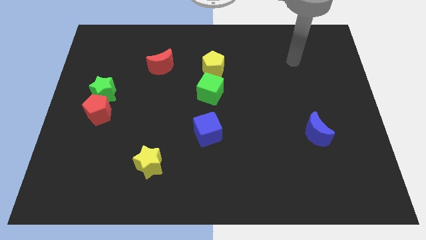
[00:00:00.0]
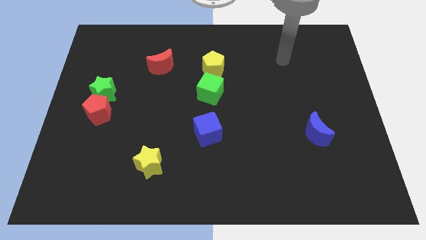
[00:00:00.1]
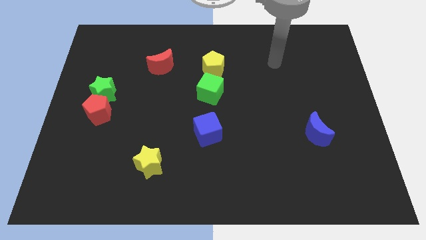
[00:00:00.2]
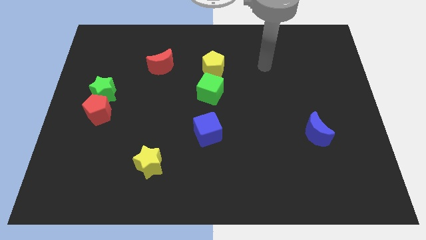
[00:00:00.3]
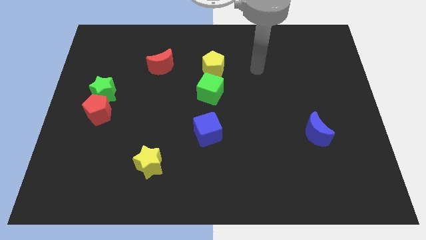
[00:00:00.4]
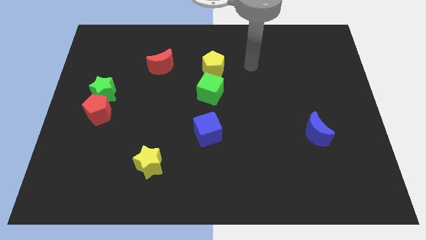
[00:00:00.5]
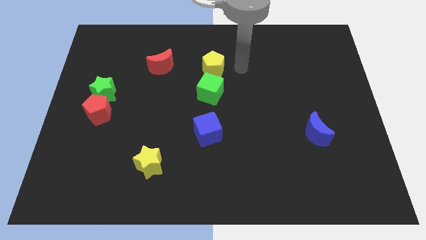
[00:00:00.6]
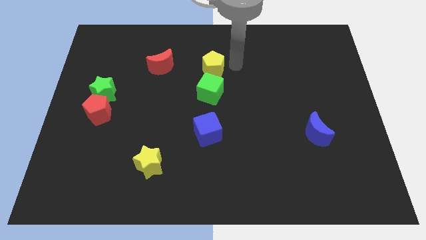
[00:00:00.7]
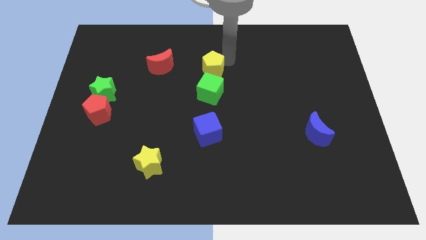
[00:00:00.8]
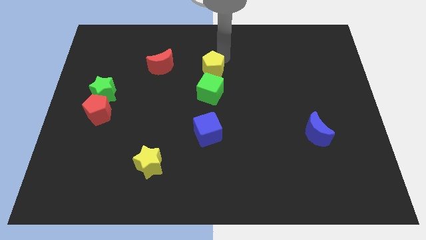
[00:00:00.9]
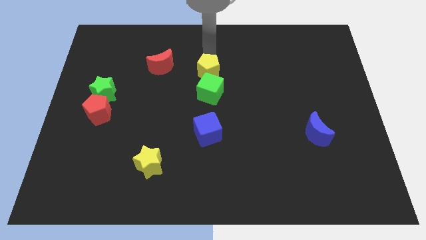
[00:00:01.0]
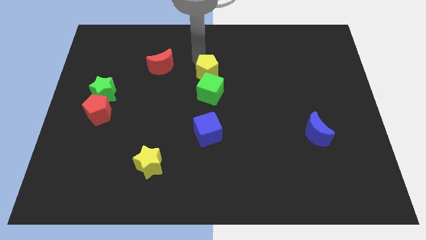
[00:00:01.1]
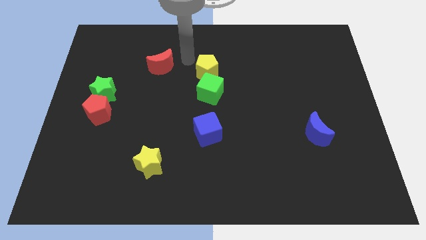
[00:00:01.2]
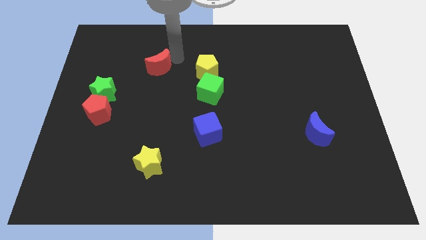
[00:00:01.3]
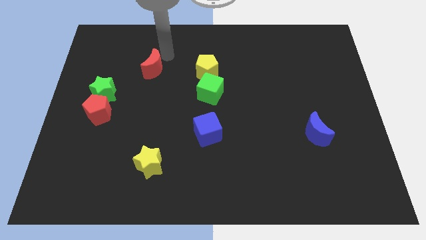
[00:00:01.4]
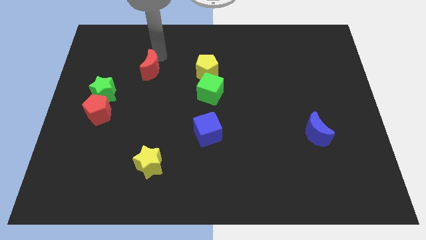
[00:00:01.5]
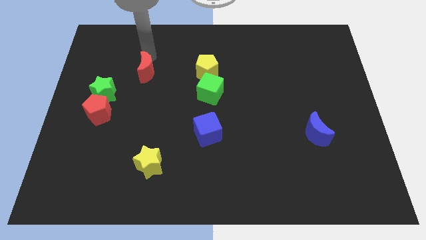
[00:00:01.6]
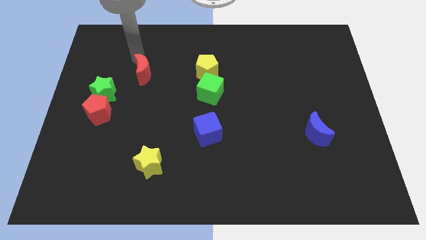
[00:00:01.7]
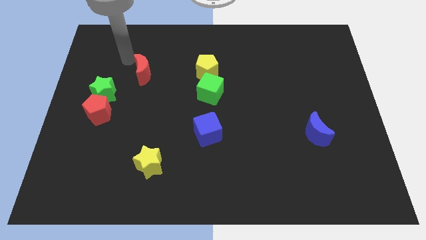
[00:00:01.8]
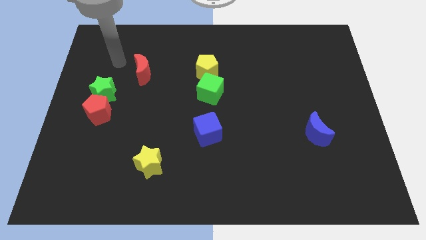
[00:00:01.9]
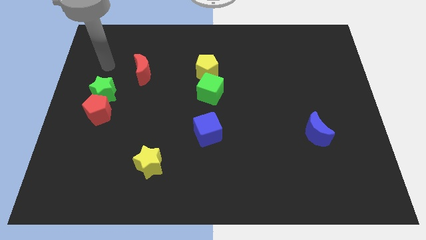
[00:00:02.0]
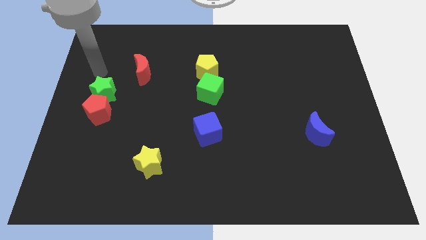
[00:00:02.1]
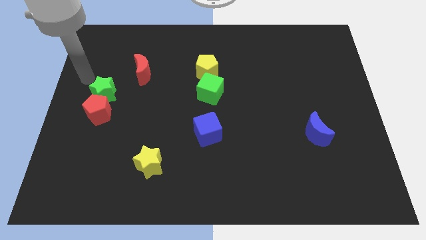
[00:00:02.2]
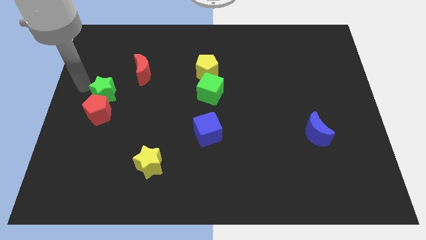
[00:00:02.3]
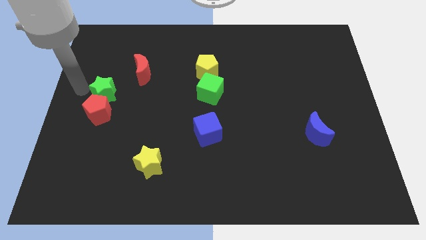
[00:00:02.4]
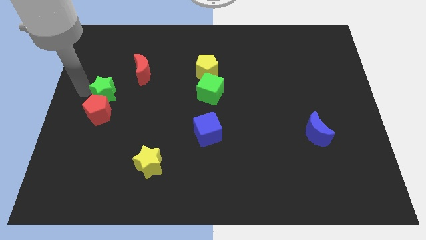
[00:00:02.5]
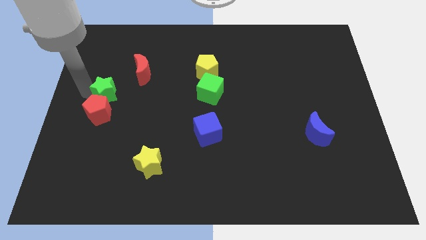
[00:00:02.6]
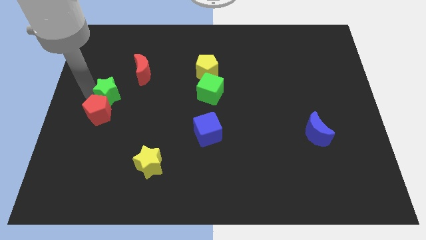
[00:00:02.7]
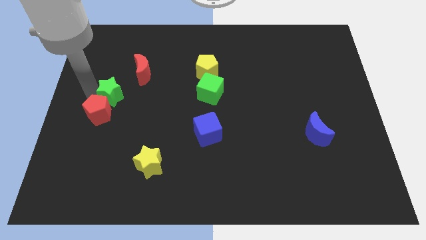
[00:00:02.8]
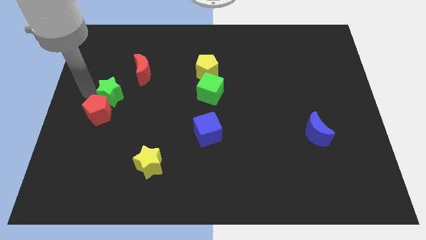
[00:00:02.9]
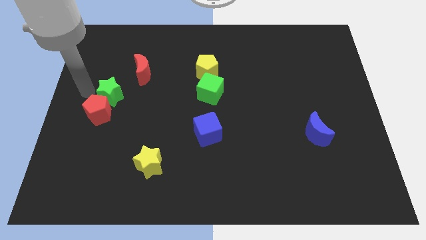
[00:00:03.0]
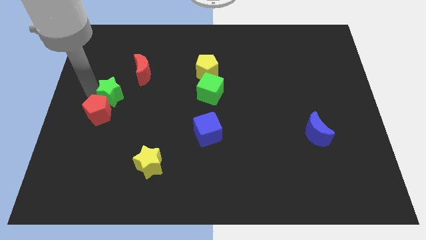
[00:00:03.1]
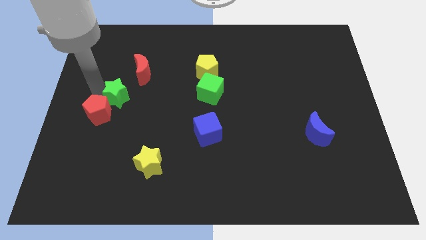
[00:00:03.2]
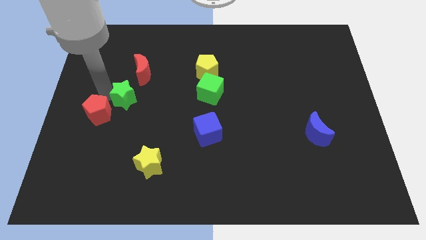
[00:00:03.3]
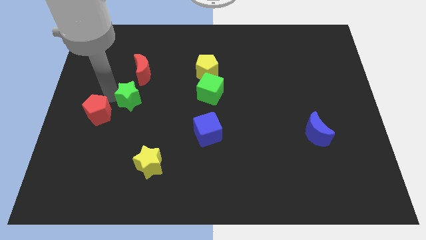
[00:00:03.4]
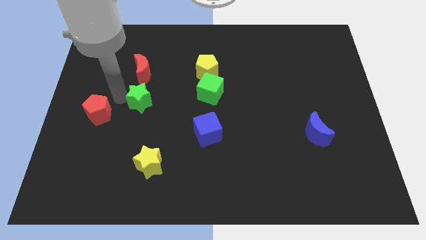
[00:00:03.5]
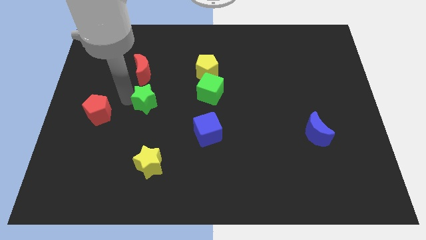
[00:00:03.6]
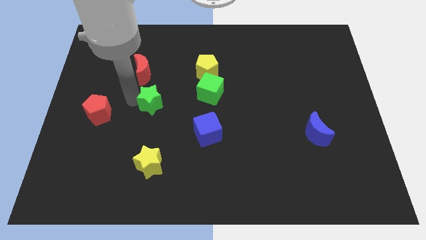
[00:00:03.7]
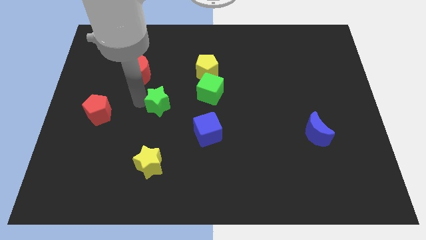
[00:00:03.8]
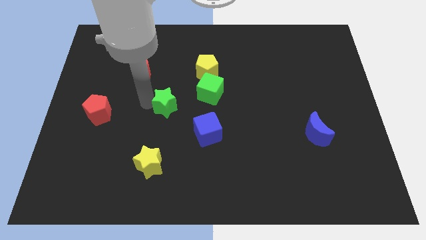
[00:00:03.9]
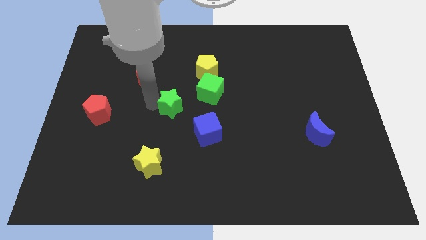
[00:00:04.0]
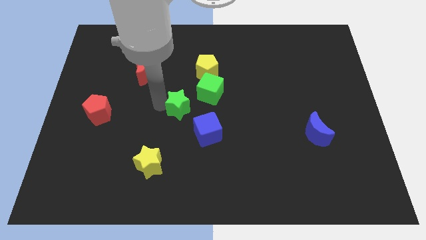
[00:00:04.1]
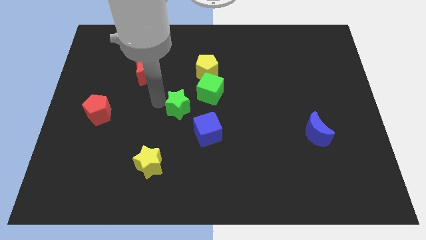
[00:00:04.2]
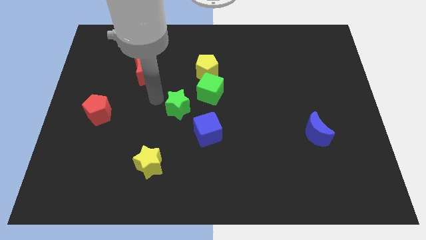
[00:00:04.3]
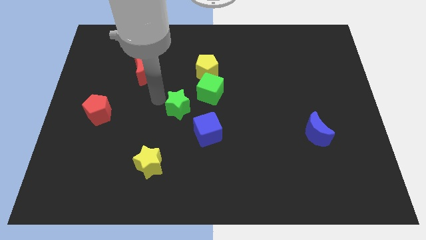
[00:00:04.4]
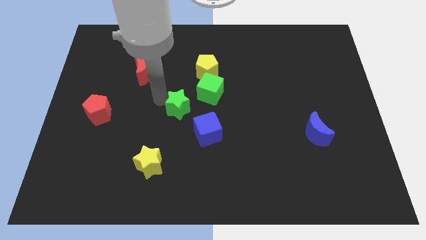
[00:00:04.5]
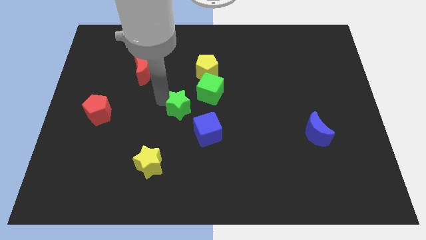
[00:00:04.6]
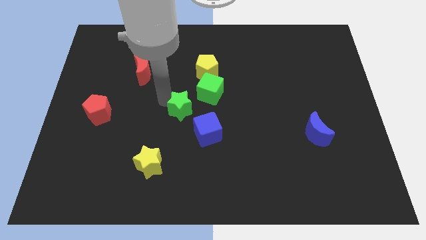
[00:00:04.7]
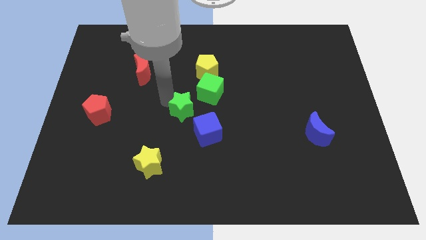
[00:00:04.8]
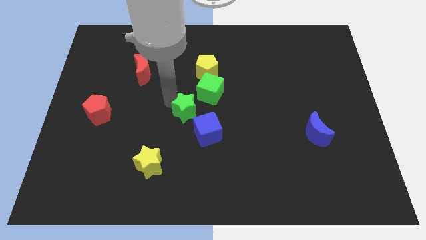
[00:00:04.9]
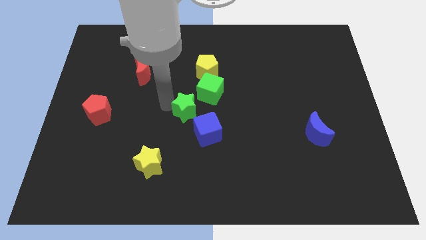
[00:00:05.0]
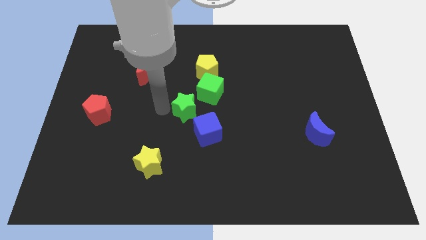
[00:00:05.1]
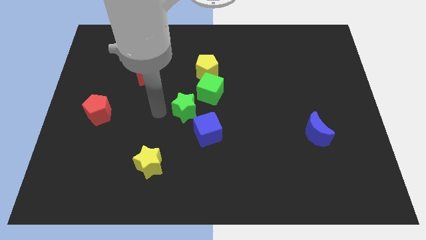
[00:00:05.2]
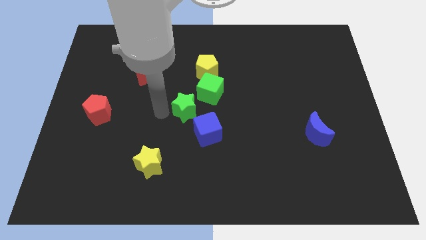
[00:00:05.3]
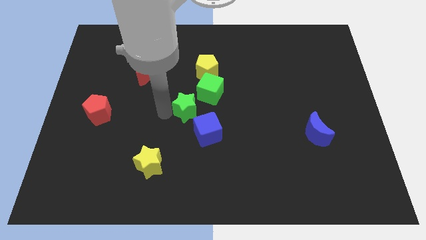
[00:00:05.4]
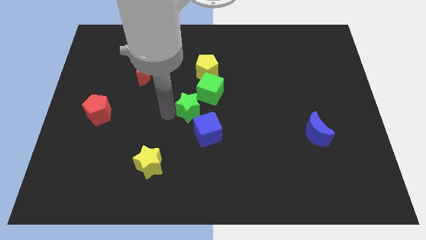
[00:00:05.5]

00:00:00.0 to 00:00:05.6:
move the green star to the right

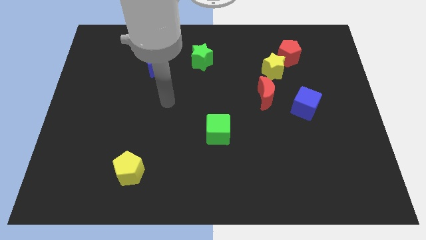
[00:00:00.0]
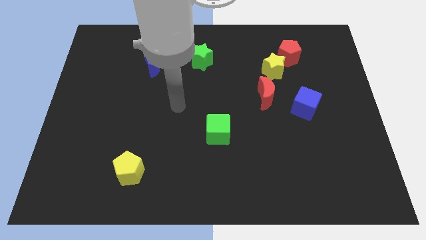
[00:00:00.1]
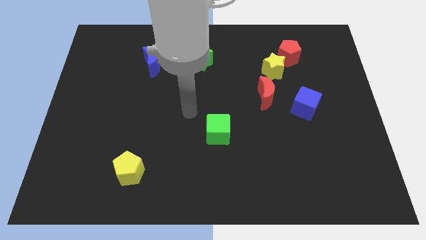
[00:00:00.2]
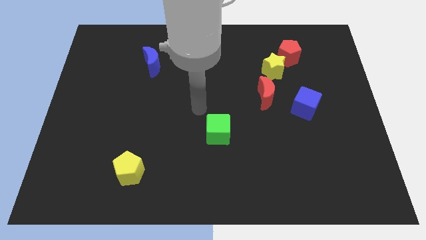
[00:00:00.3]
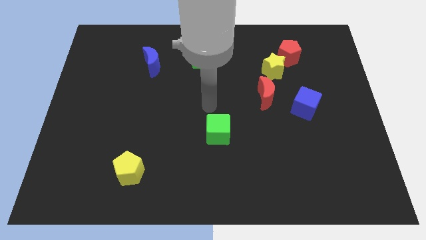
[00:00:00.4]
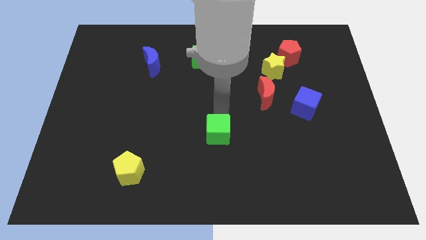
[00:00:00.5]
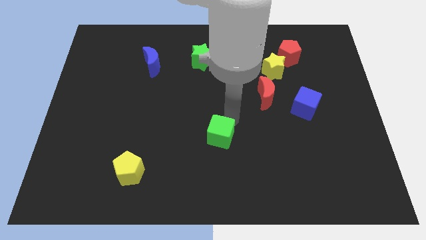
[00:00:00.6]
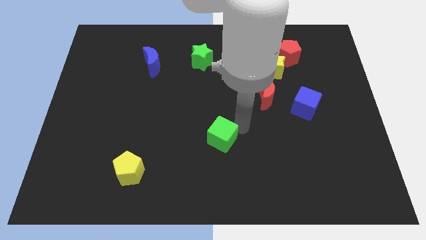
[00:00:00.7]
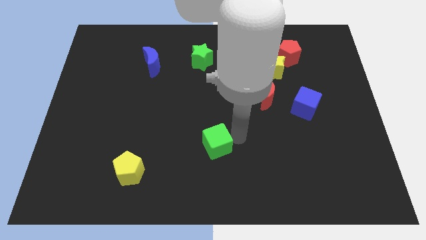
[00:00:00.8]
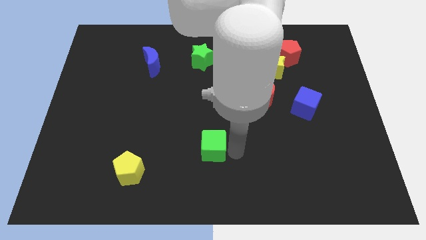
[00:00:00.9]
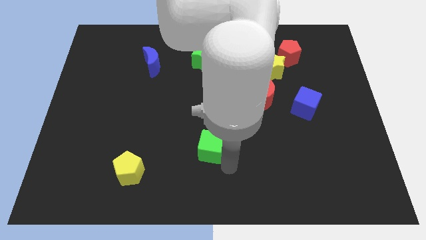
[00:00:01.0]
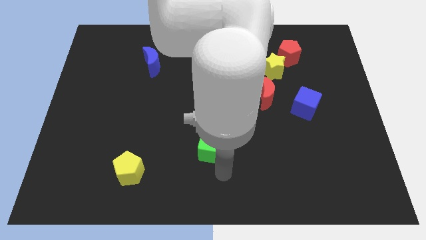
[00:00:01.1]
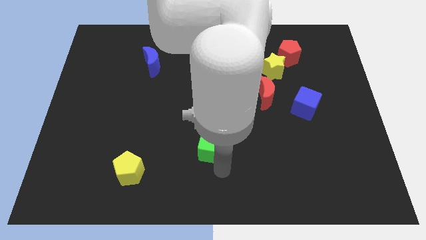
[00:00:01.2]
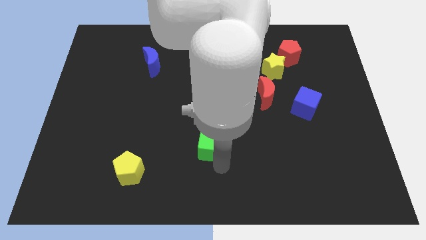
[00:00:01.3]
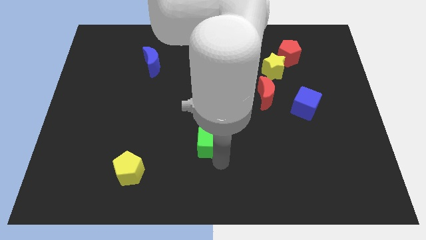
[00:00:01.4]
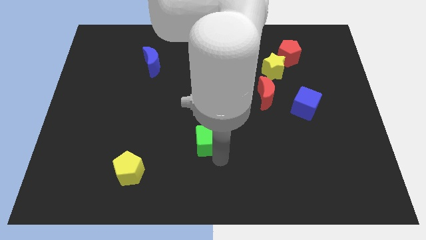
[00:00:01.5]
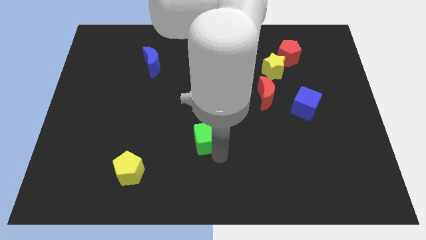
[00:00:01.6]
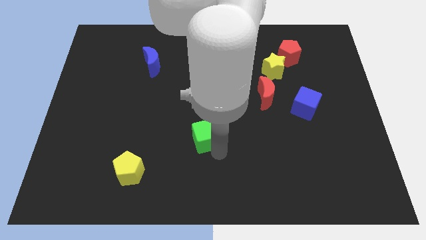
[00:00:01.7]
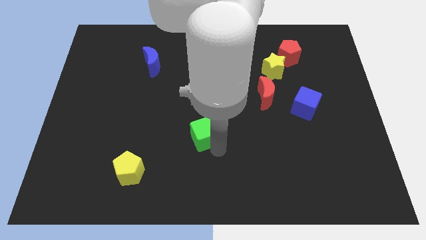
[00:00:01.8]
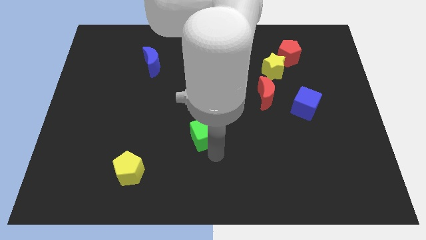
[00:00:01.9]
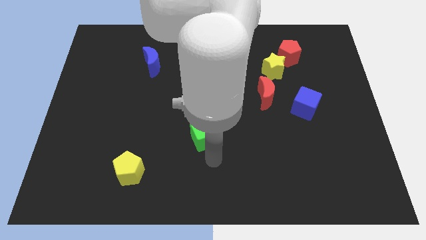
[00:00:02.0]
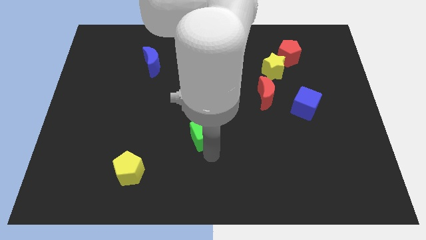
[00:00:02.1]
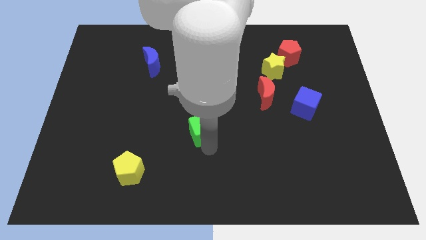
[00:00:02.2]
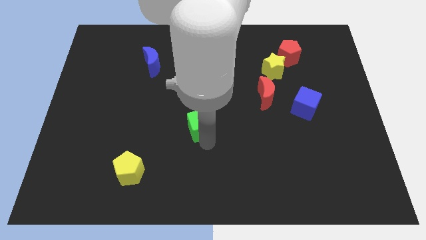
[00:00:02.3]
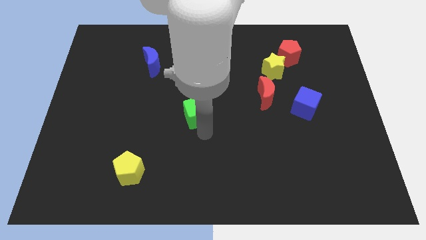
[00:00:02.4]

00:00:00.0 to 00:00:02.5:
slightly move the green cube upwards and to the left diagonally

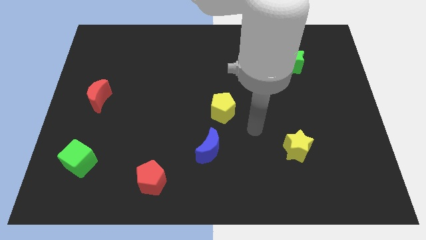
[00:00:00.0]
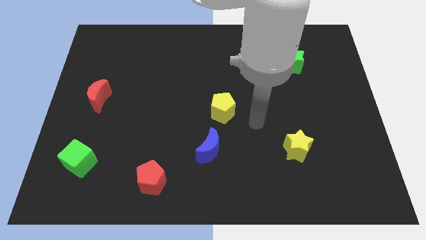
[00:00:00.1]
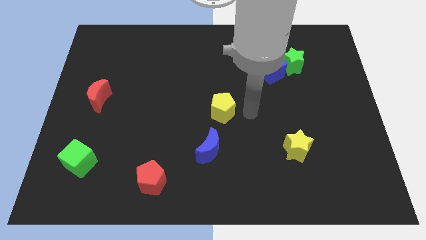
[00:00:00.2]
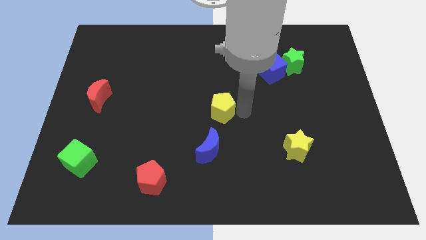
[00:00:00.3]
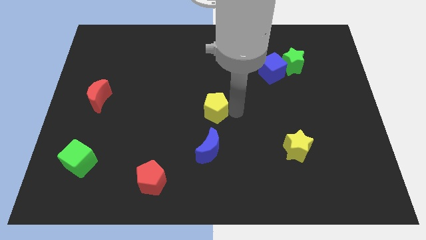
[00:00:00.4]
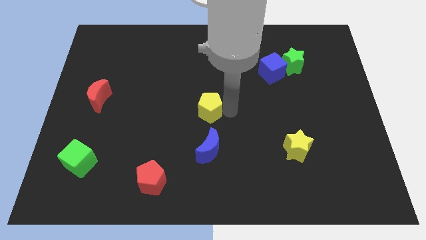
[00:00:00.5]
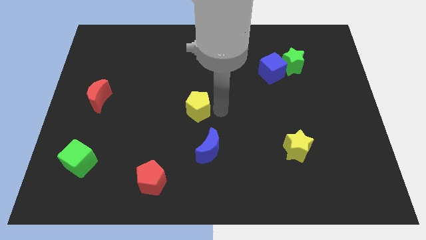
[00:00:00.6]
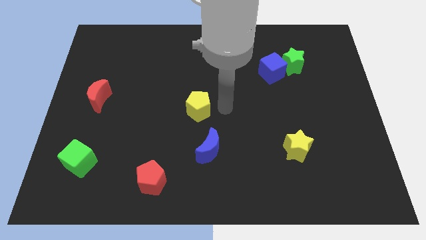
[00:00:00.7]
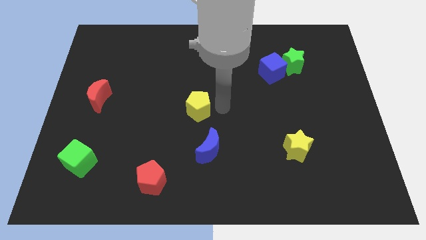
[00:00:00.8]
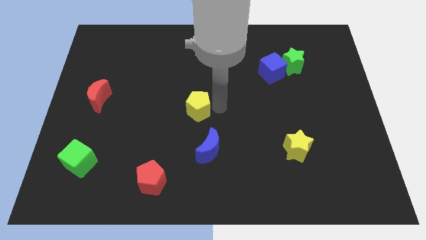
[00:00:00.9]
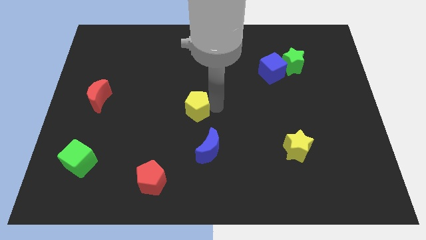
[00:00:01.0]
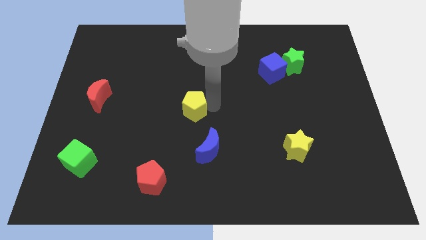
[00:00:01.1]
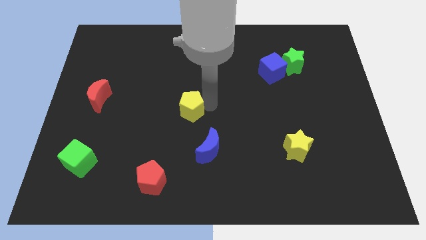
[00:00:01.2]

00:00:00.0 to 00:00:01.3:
move the yellow pentagon a bit left
